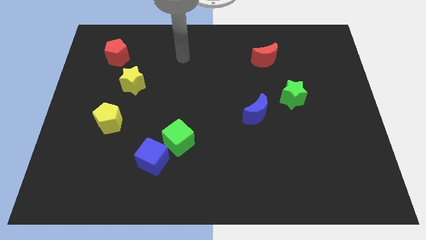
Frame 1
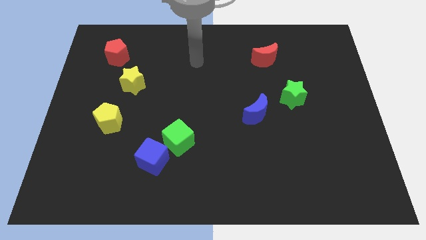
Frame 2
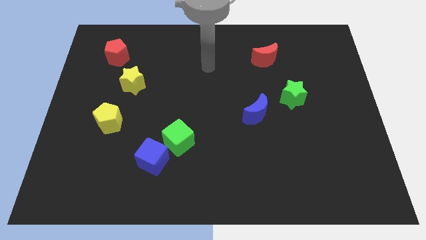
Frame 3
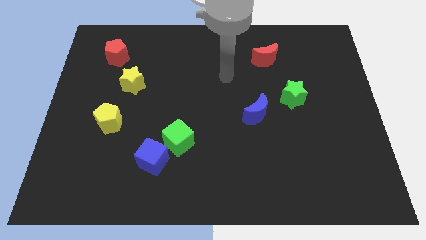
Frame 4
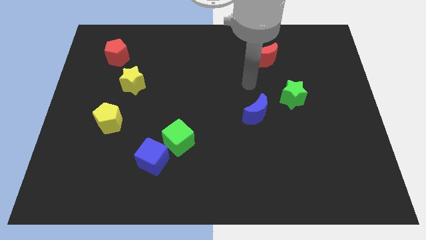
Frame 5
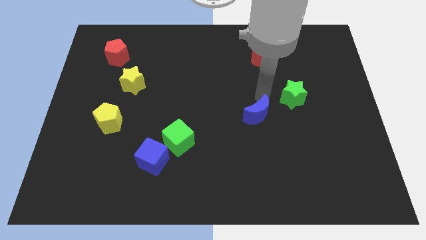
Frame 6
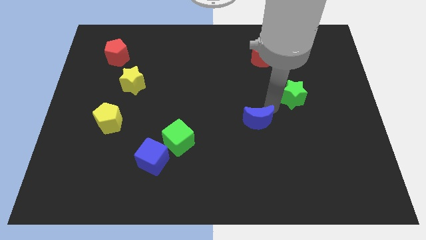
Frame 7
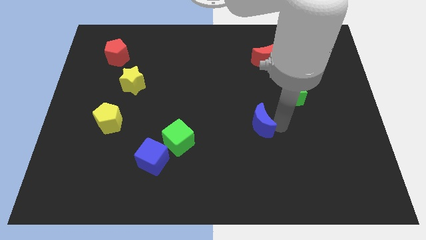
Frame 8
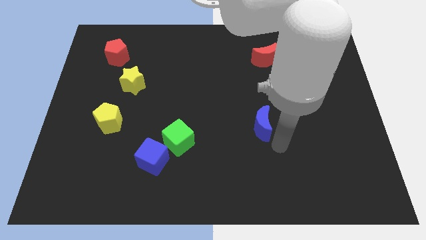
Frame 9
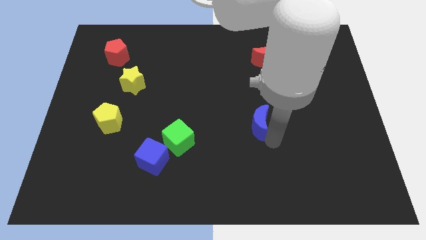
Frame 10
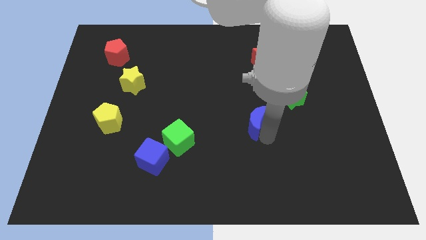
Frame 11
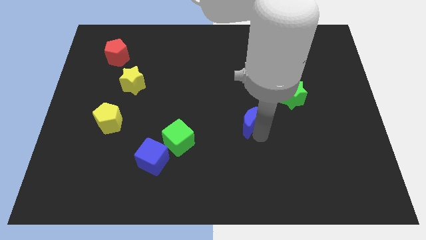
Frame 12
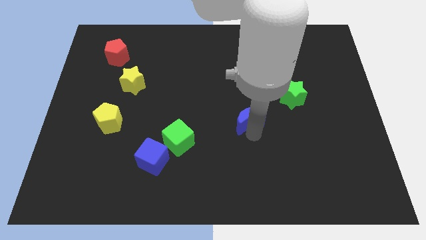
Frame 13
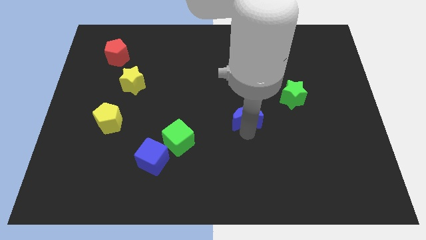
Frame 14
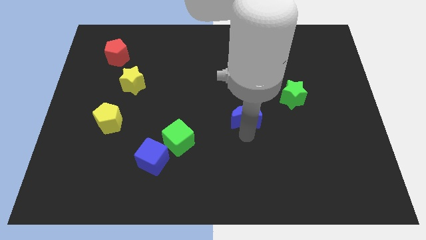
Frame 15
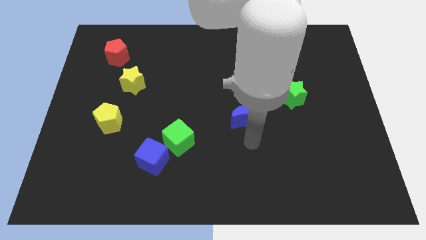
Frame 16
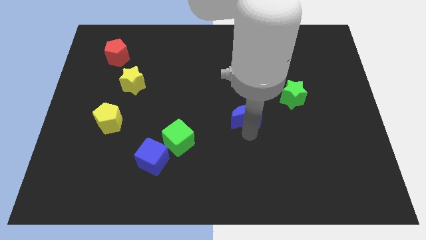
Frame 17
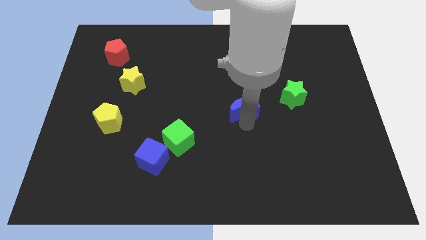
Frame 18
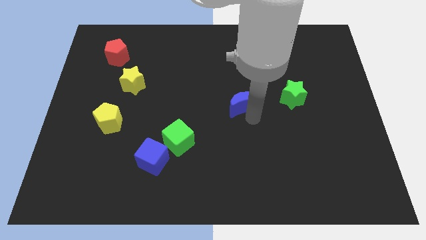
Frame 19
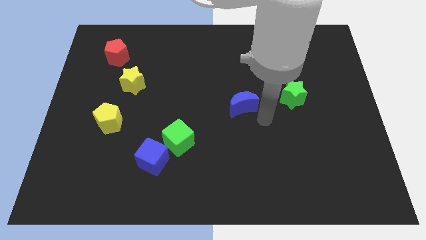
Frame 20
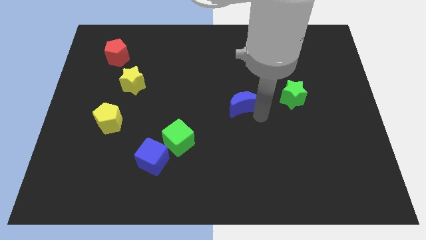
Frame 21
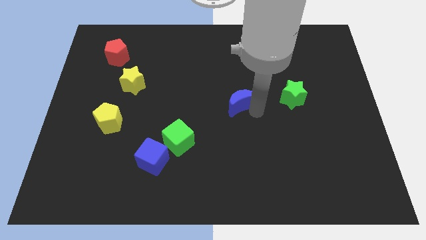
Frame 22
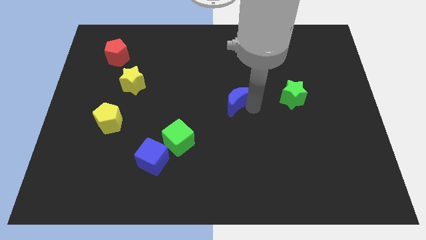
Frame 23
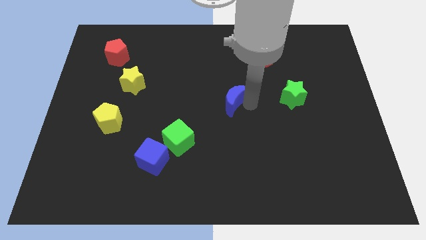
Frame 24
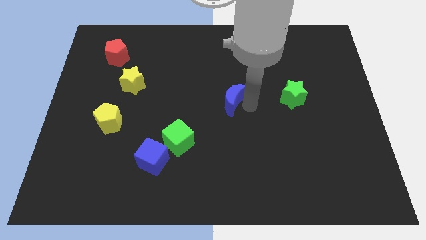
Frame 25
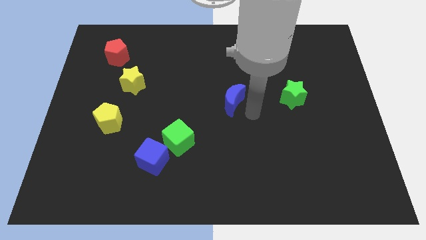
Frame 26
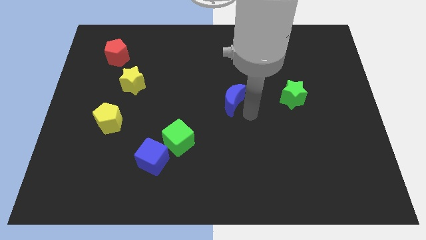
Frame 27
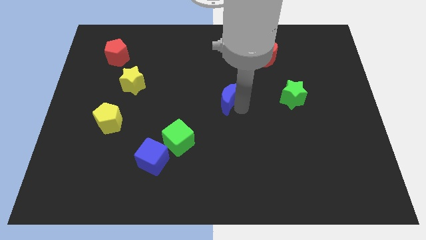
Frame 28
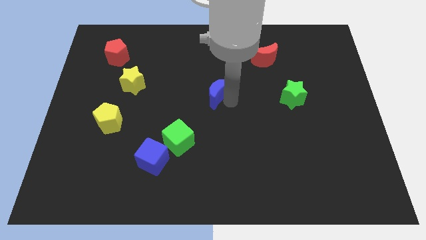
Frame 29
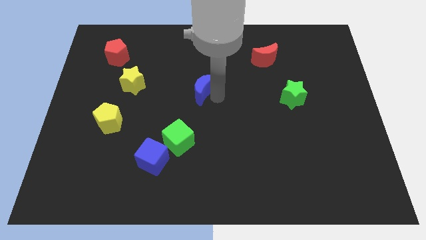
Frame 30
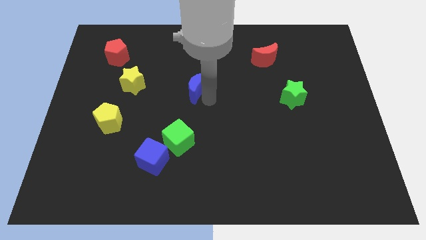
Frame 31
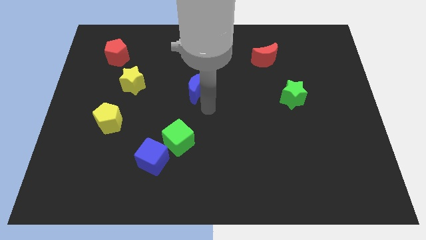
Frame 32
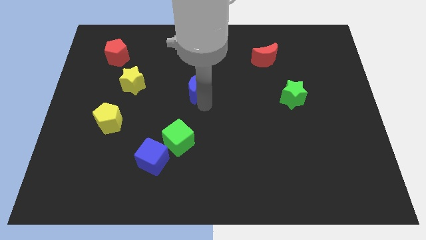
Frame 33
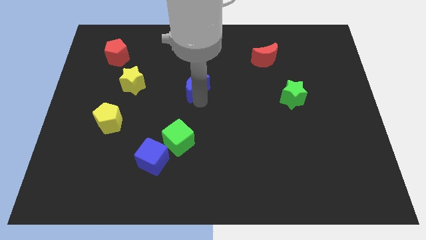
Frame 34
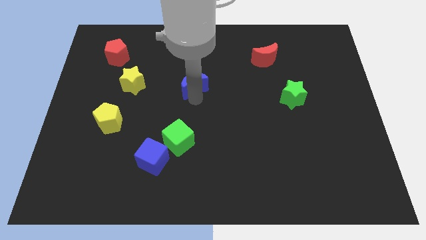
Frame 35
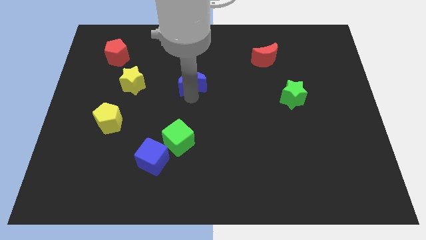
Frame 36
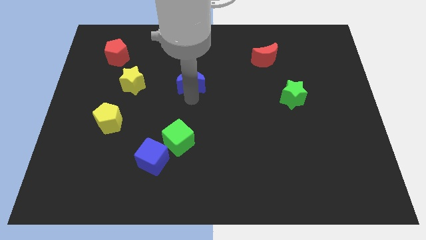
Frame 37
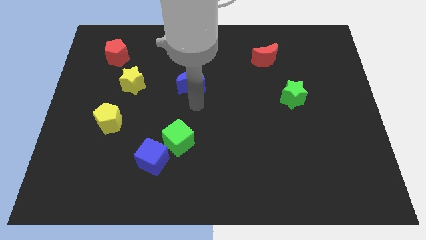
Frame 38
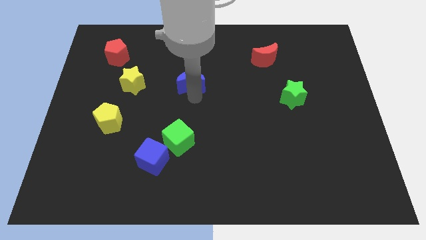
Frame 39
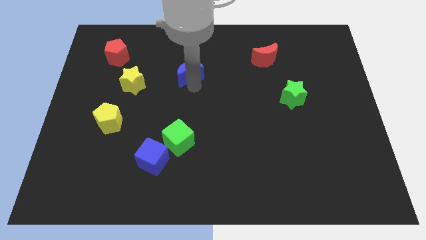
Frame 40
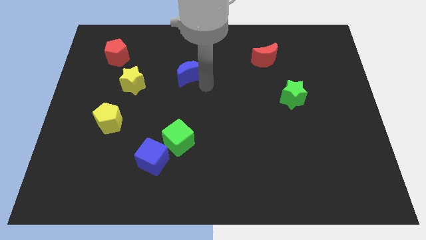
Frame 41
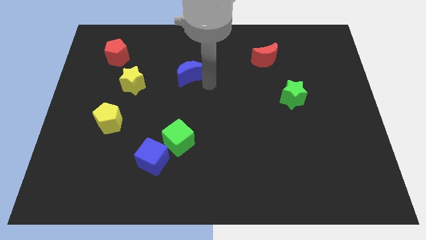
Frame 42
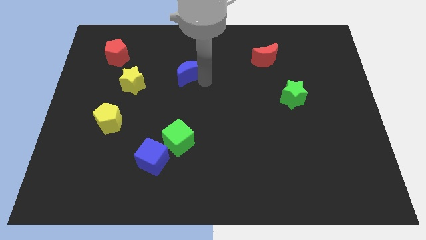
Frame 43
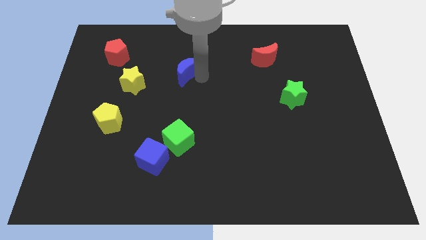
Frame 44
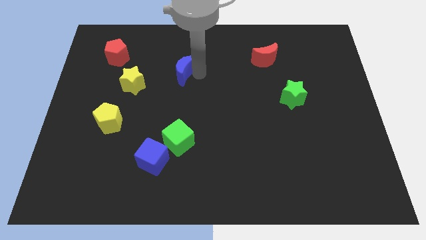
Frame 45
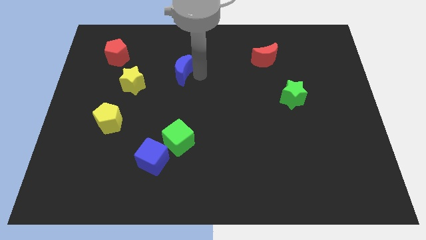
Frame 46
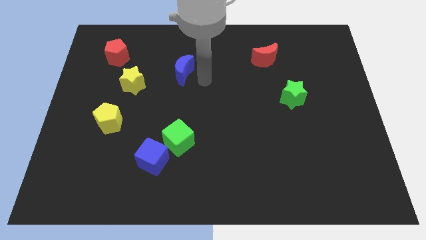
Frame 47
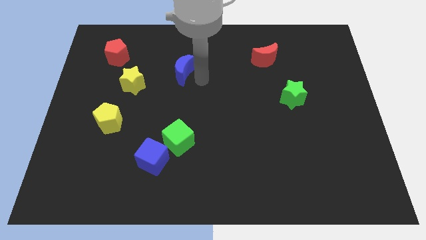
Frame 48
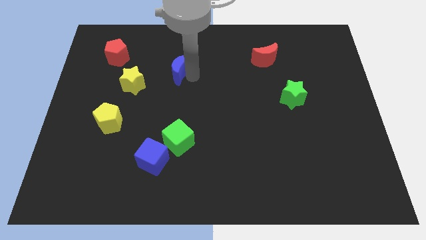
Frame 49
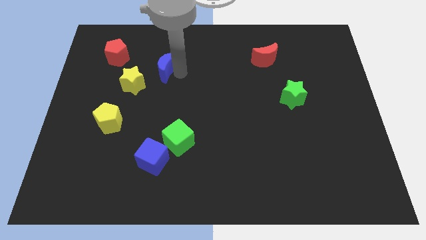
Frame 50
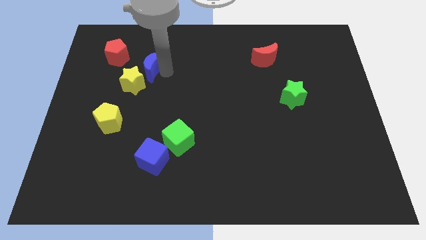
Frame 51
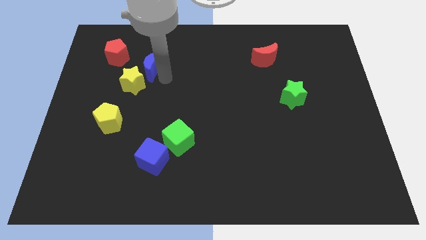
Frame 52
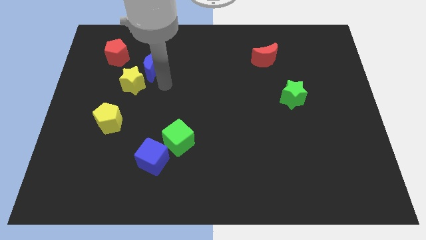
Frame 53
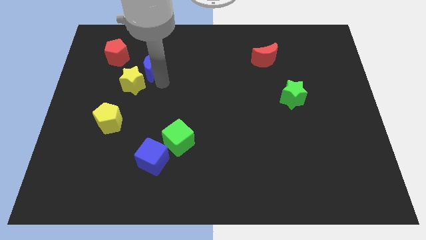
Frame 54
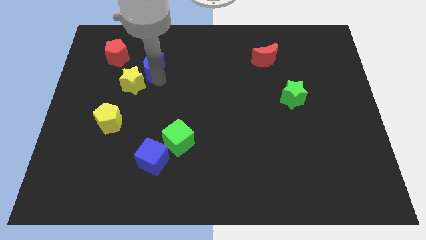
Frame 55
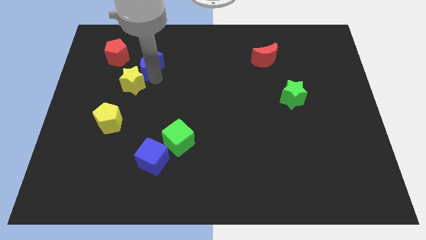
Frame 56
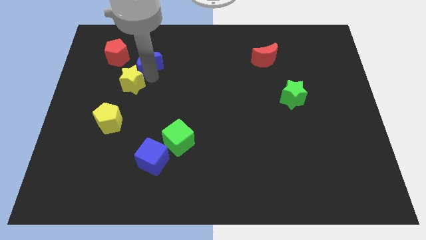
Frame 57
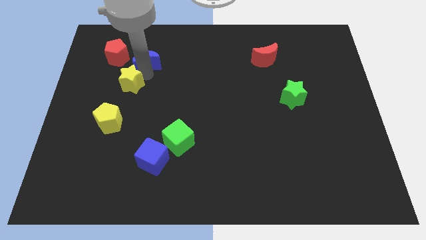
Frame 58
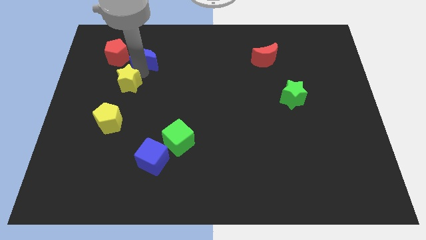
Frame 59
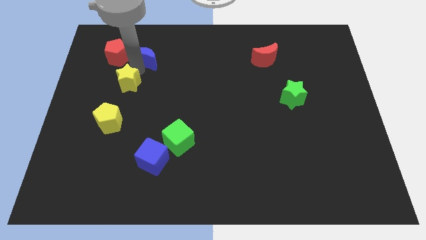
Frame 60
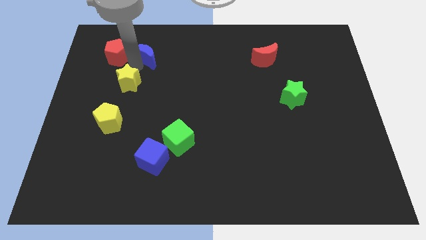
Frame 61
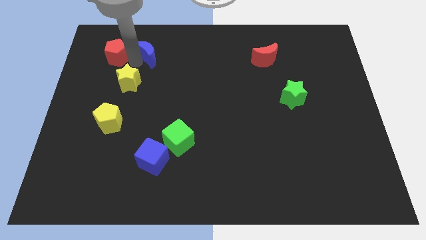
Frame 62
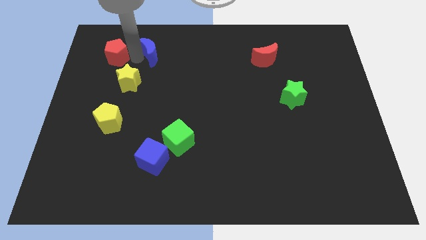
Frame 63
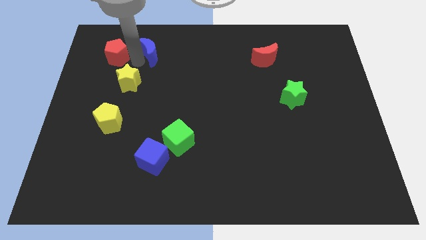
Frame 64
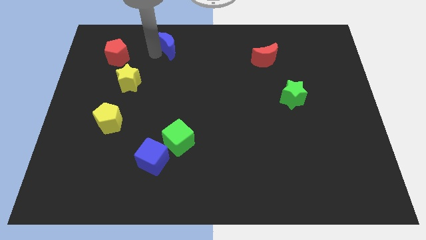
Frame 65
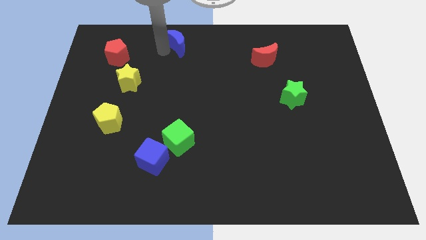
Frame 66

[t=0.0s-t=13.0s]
push the blue moon to the top side
